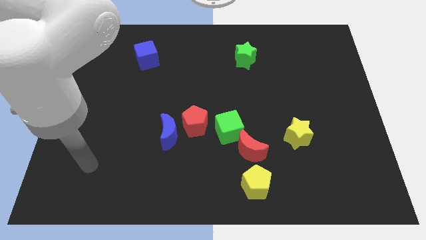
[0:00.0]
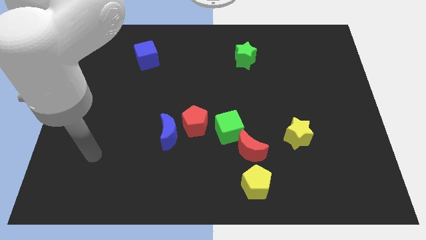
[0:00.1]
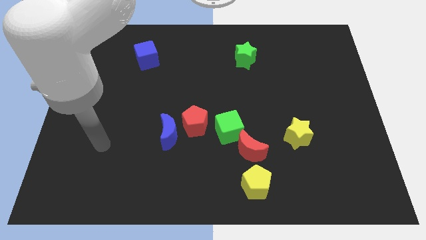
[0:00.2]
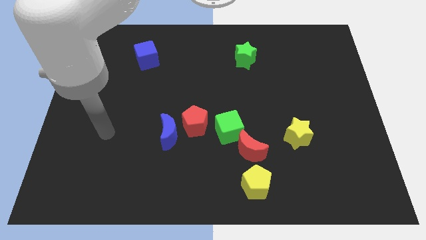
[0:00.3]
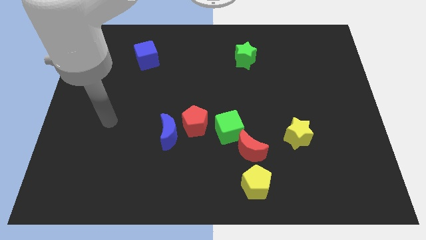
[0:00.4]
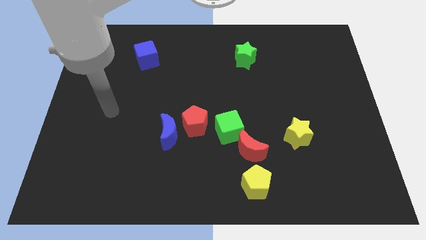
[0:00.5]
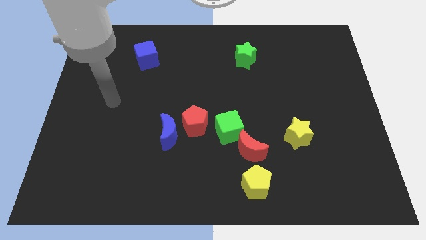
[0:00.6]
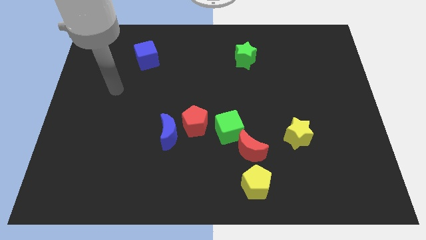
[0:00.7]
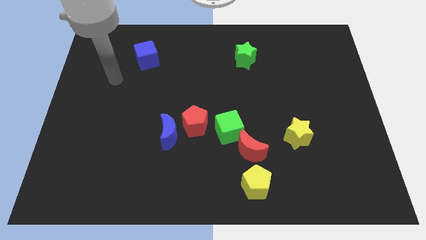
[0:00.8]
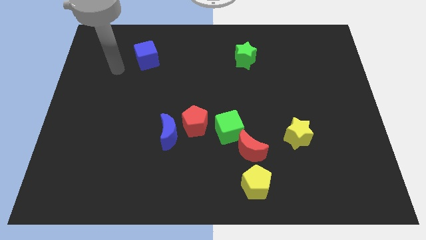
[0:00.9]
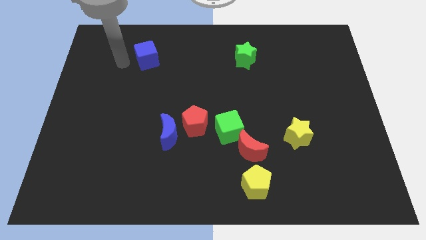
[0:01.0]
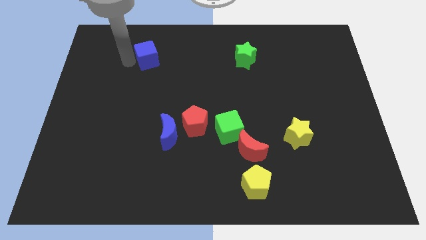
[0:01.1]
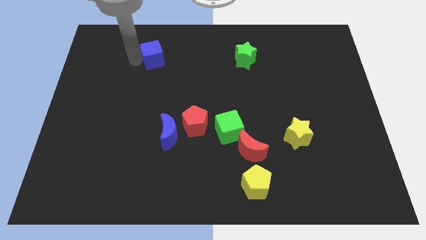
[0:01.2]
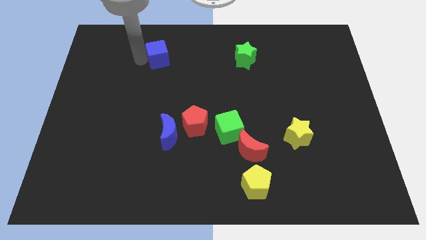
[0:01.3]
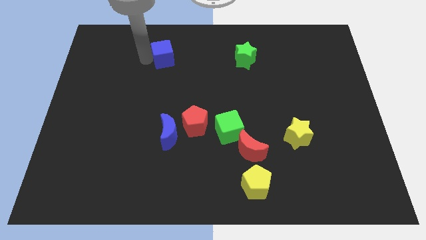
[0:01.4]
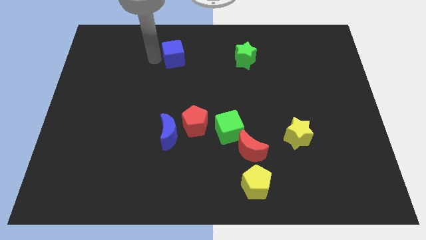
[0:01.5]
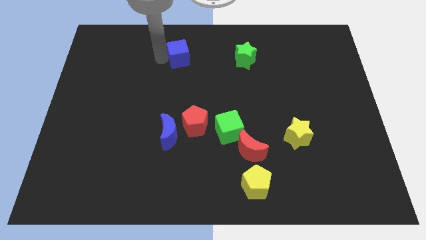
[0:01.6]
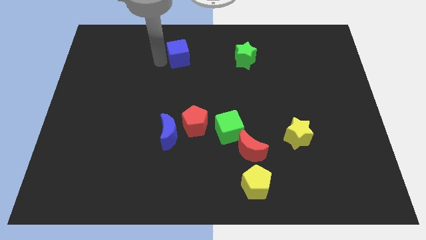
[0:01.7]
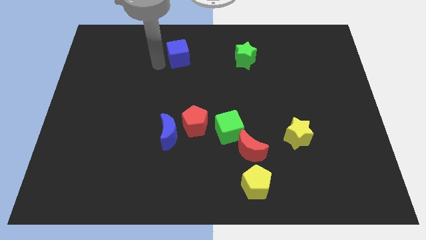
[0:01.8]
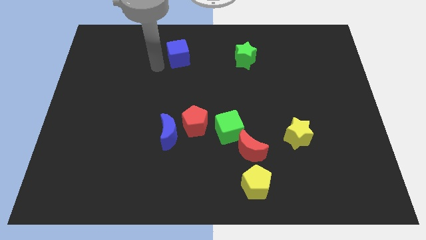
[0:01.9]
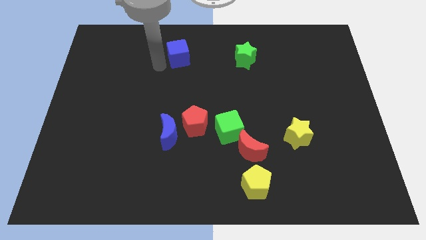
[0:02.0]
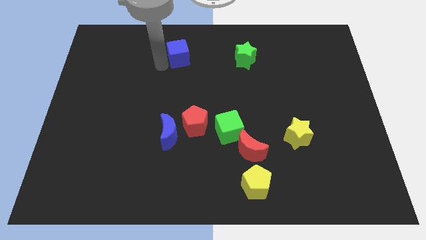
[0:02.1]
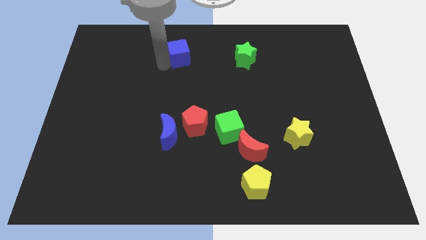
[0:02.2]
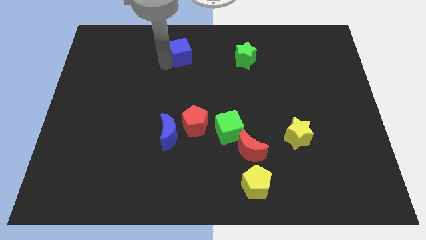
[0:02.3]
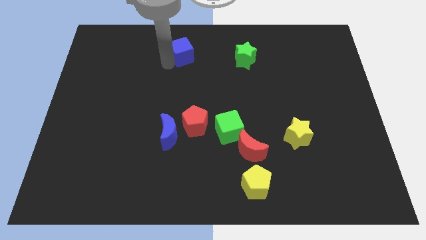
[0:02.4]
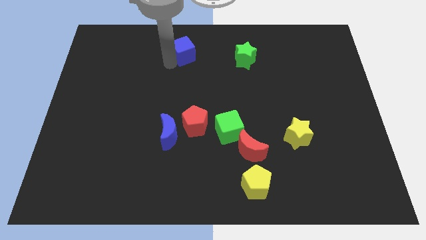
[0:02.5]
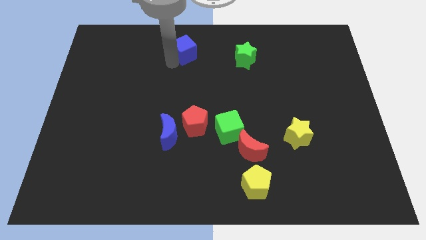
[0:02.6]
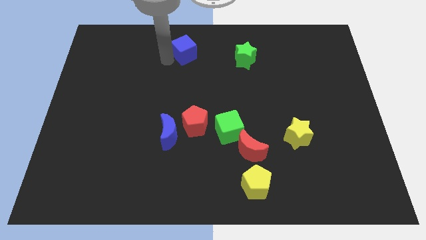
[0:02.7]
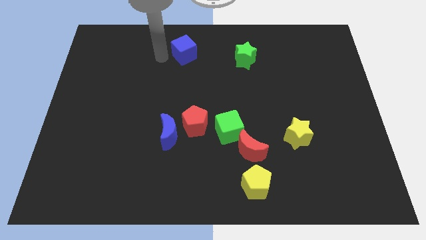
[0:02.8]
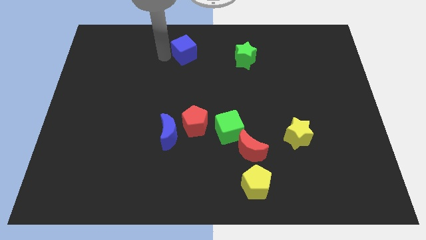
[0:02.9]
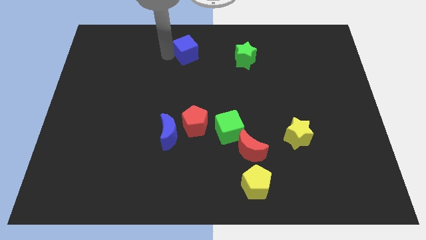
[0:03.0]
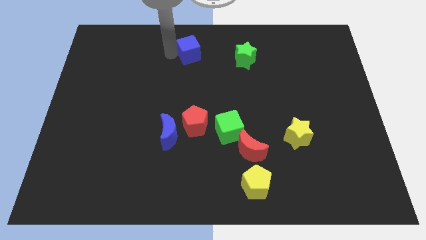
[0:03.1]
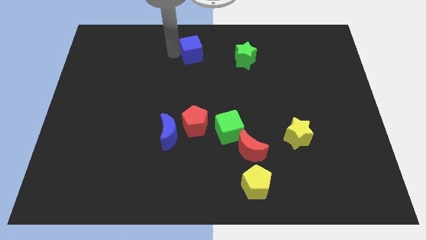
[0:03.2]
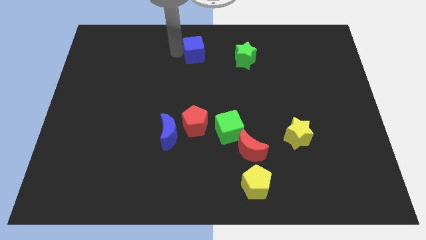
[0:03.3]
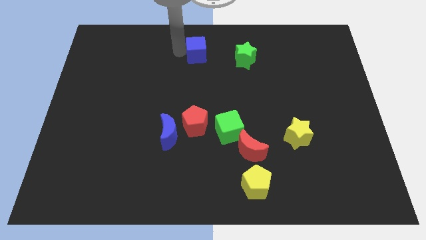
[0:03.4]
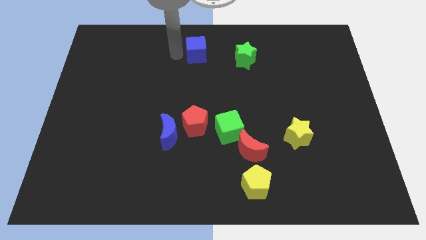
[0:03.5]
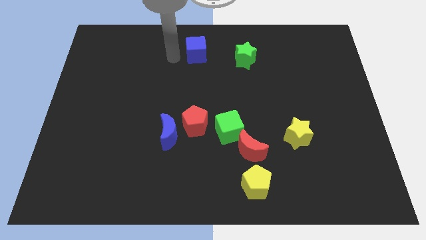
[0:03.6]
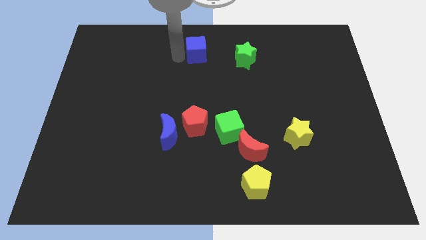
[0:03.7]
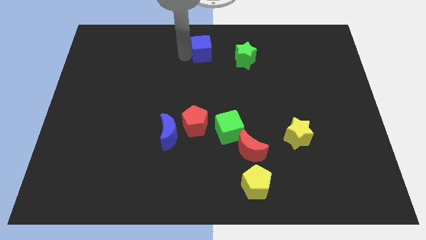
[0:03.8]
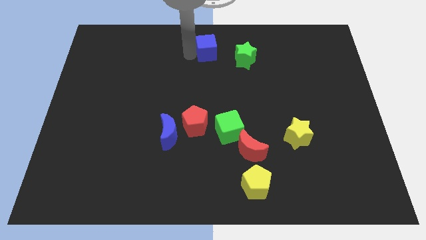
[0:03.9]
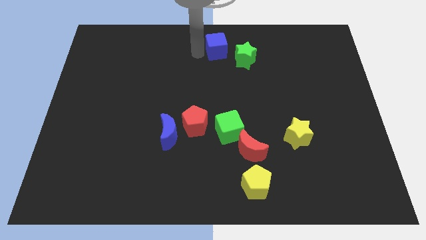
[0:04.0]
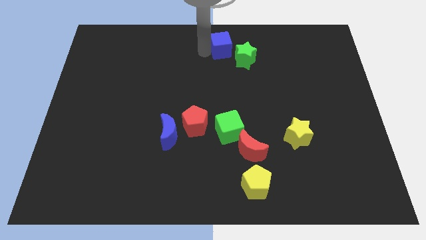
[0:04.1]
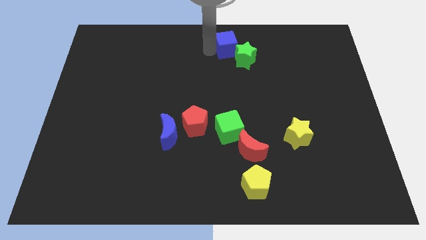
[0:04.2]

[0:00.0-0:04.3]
move the blue cube to the right

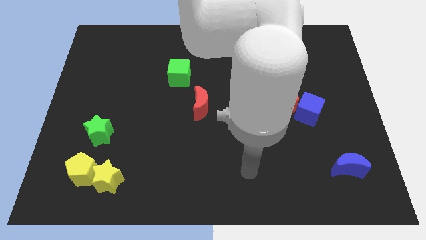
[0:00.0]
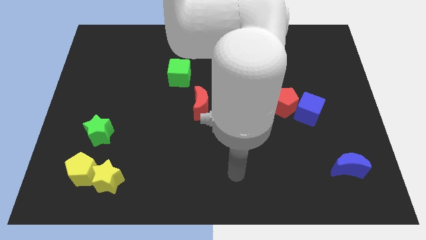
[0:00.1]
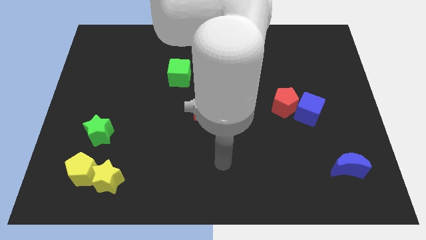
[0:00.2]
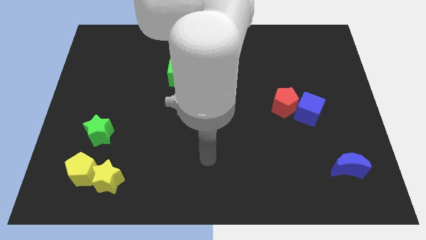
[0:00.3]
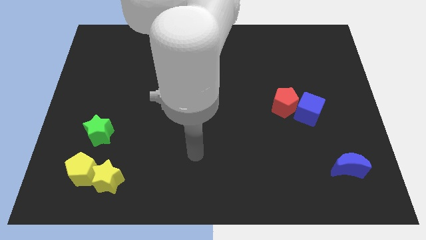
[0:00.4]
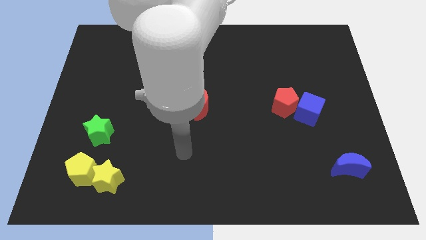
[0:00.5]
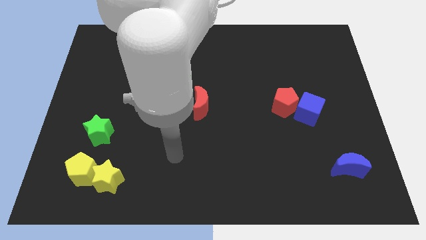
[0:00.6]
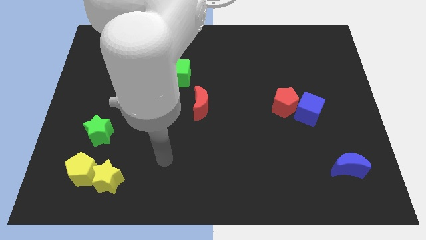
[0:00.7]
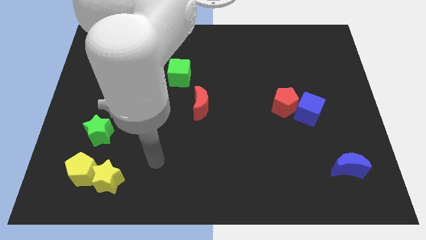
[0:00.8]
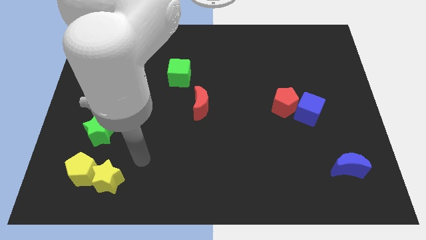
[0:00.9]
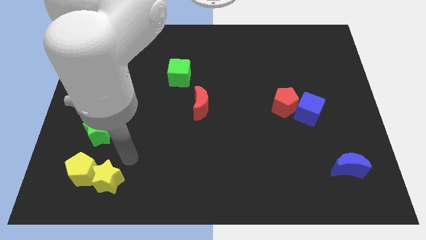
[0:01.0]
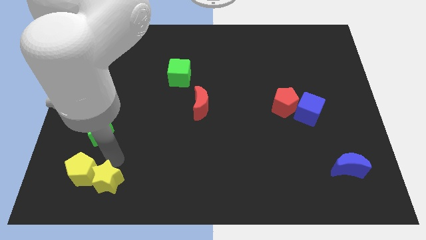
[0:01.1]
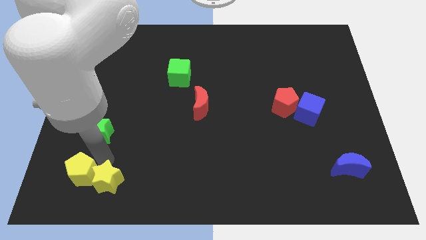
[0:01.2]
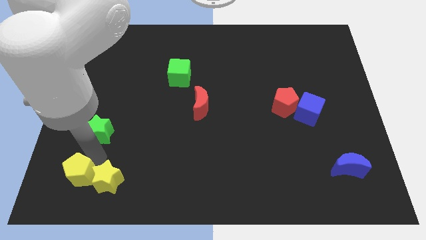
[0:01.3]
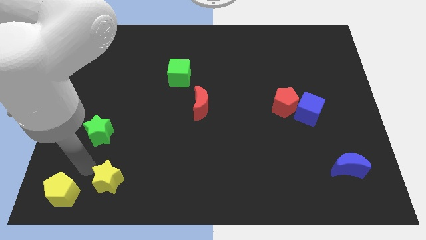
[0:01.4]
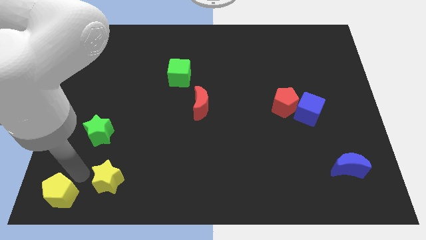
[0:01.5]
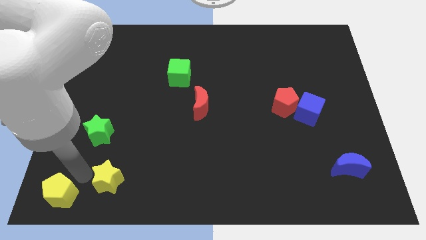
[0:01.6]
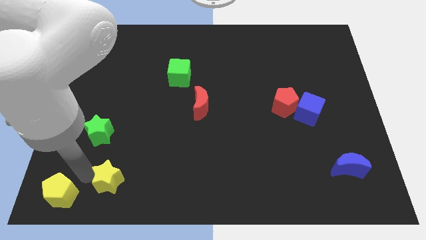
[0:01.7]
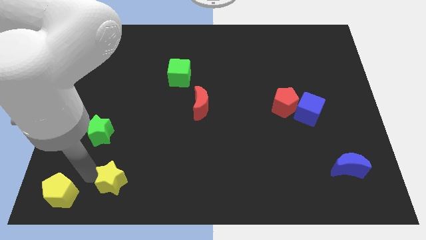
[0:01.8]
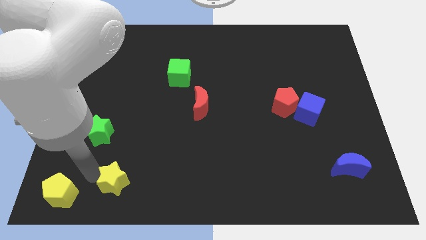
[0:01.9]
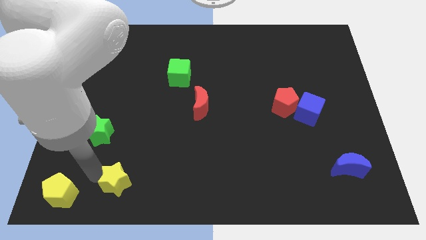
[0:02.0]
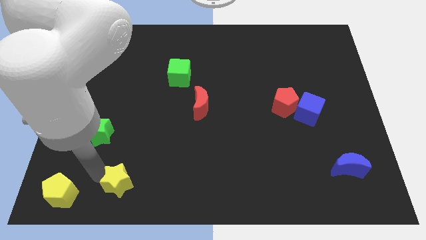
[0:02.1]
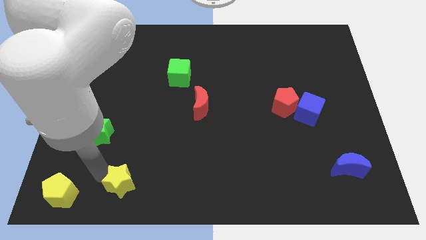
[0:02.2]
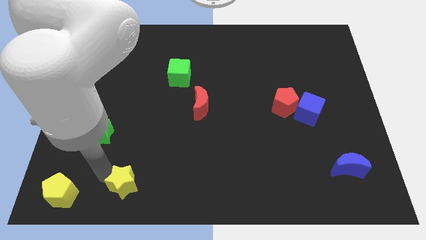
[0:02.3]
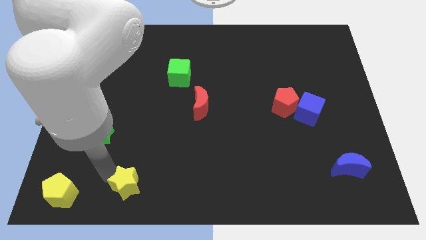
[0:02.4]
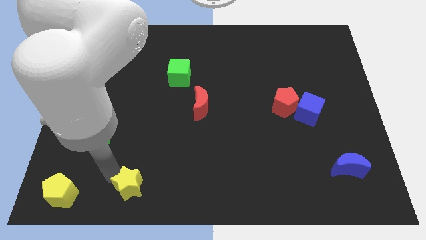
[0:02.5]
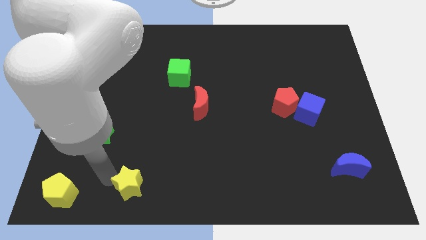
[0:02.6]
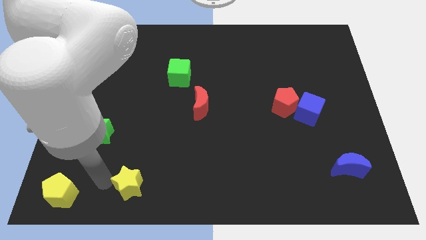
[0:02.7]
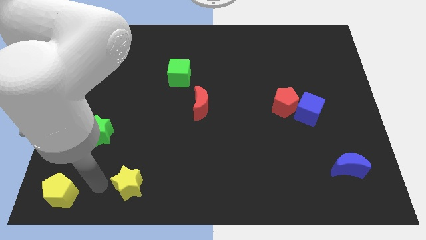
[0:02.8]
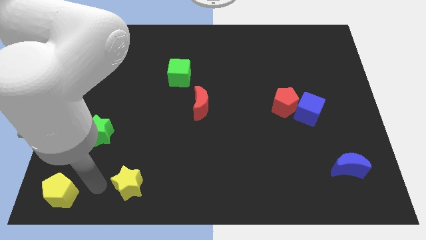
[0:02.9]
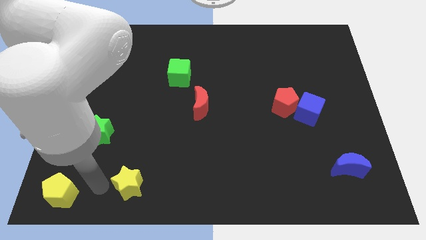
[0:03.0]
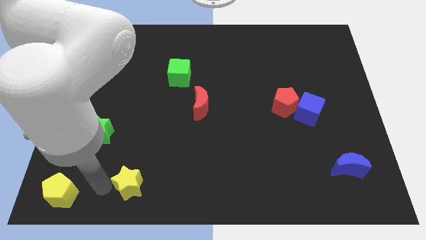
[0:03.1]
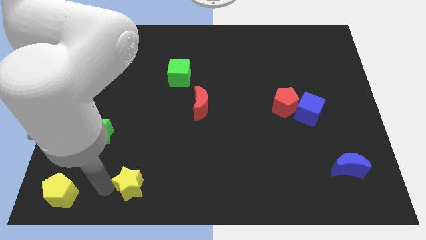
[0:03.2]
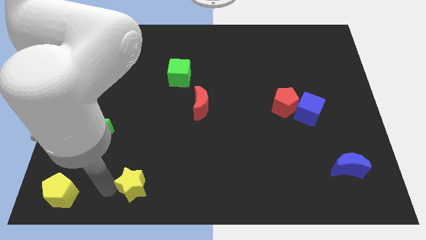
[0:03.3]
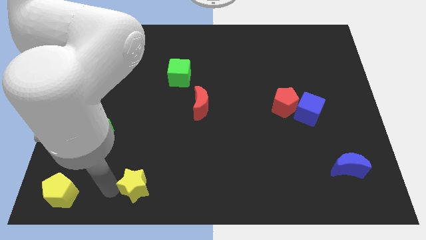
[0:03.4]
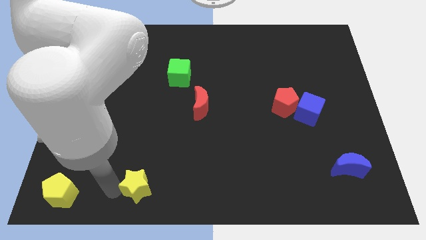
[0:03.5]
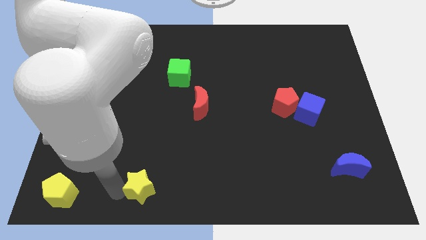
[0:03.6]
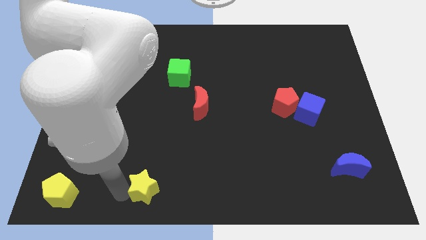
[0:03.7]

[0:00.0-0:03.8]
slide the yellow star a bit right

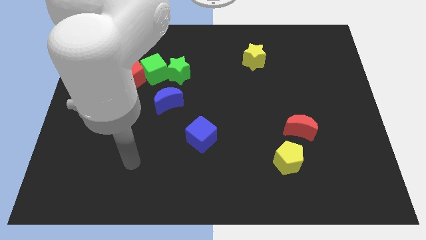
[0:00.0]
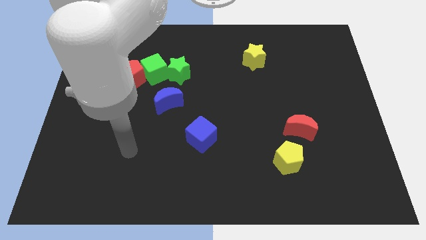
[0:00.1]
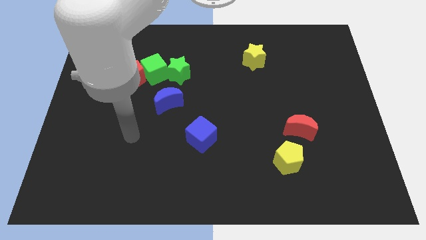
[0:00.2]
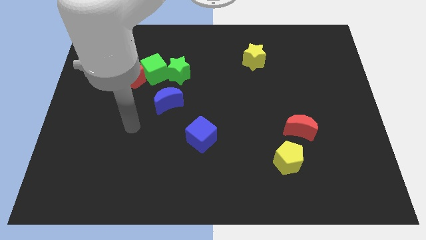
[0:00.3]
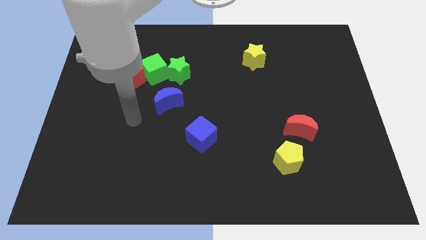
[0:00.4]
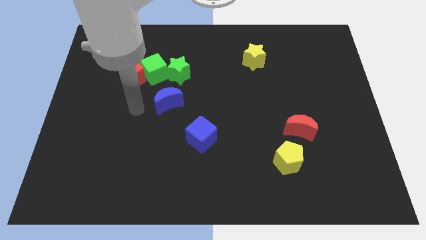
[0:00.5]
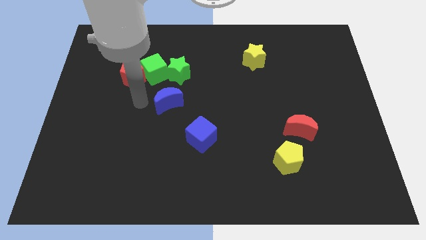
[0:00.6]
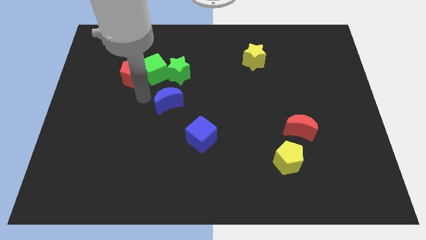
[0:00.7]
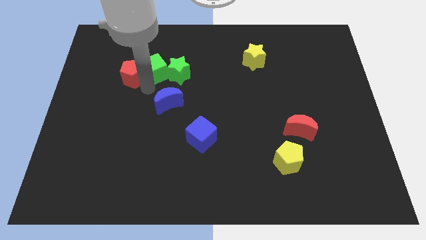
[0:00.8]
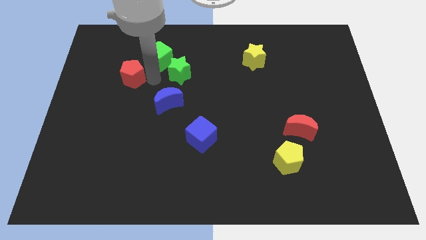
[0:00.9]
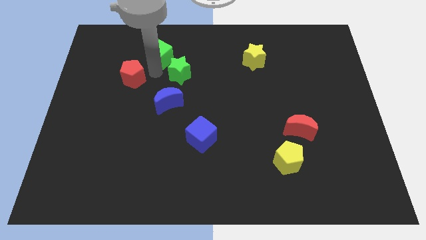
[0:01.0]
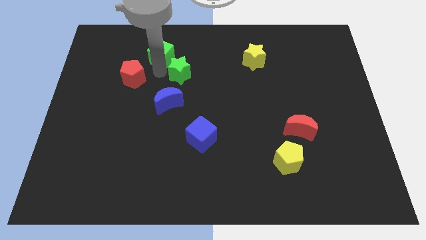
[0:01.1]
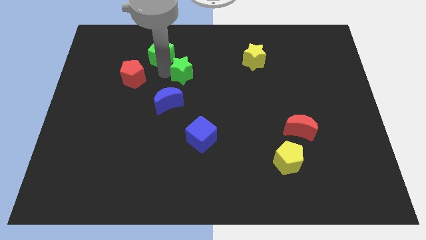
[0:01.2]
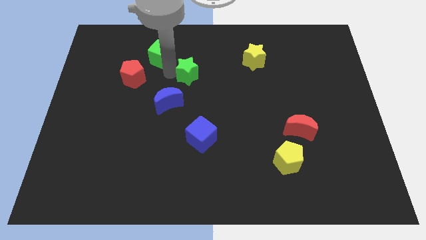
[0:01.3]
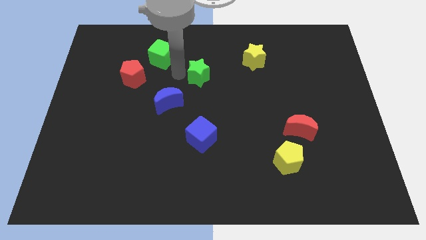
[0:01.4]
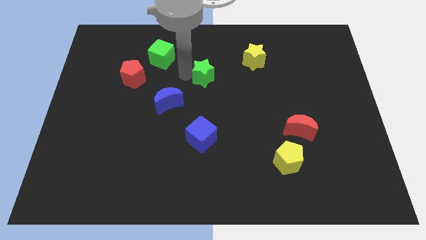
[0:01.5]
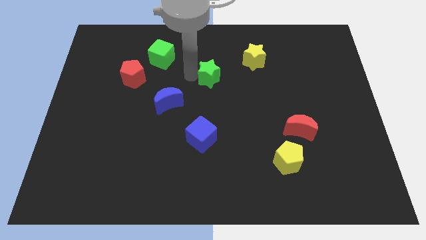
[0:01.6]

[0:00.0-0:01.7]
slide the green star right somewhat
